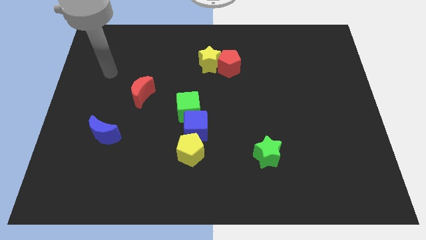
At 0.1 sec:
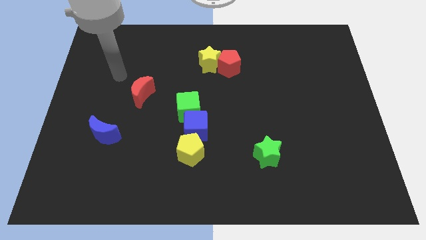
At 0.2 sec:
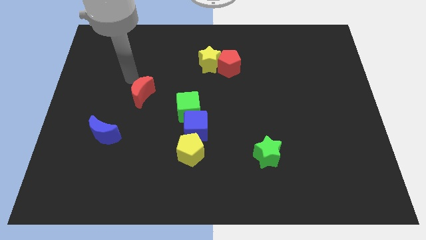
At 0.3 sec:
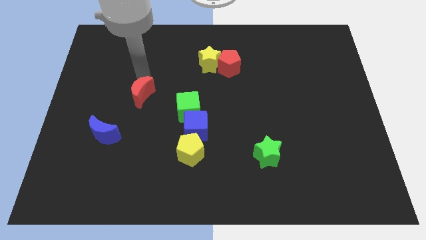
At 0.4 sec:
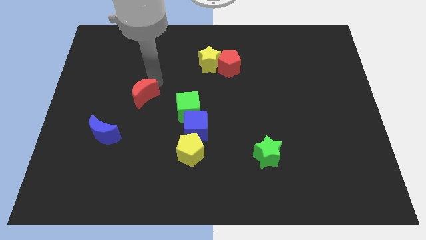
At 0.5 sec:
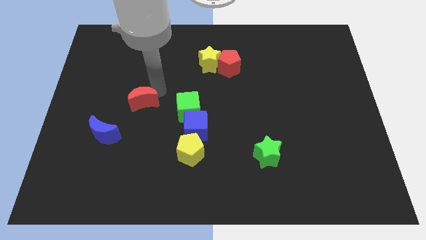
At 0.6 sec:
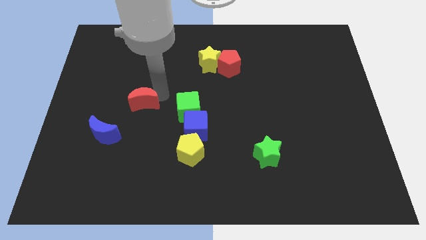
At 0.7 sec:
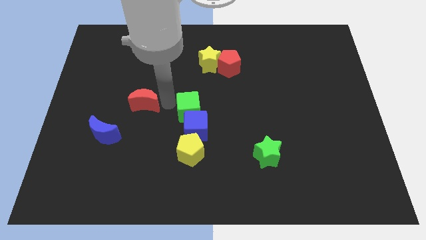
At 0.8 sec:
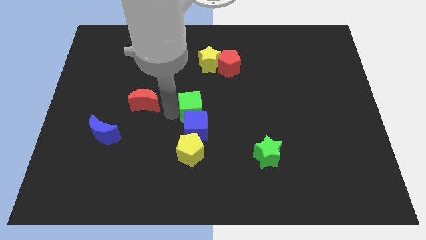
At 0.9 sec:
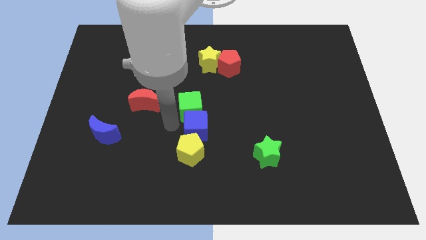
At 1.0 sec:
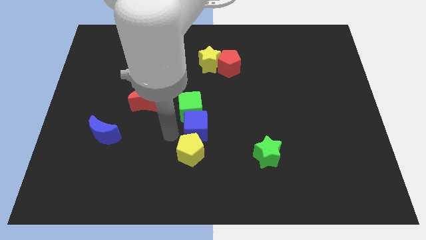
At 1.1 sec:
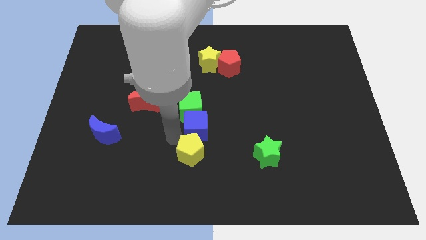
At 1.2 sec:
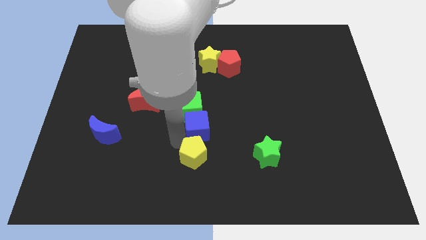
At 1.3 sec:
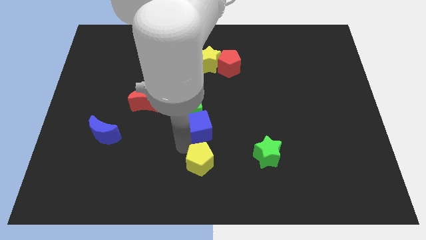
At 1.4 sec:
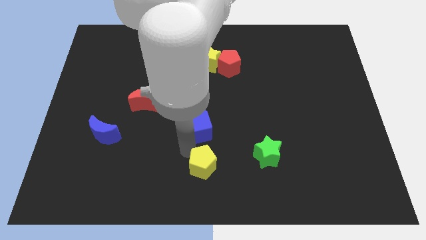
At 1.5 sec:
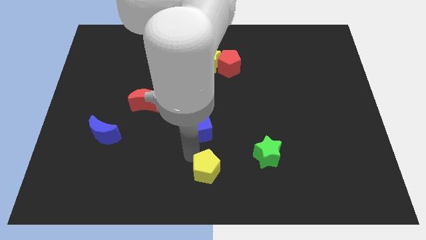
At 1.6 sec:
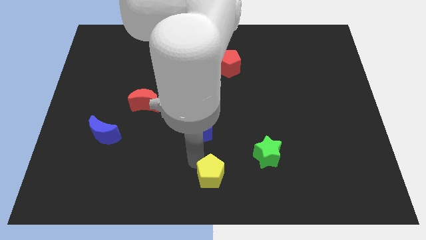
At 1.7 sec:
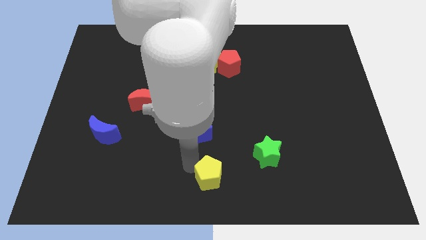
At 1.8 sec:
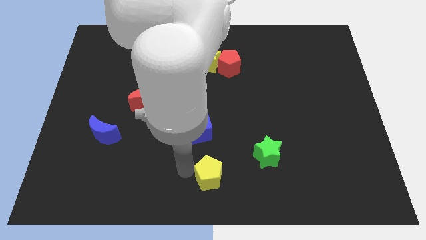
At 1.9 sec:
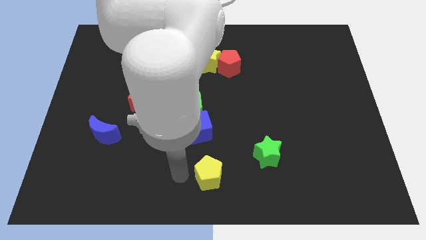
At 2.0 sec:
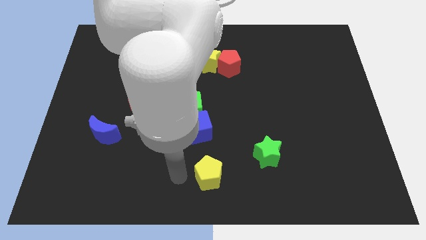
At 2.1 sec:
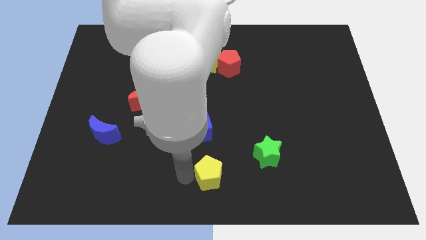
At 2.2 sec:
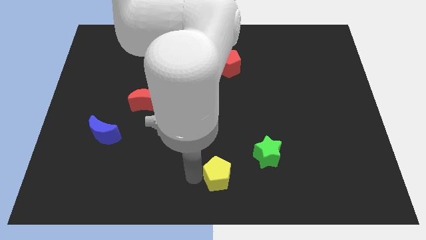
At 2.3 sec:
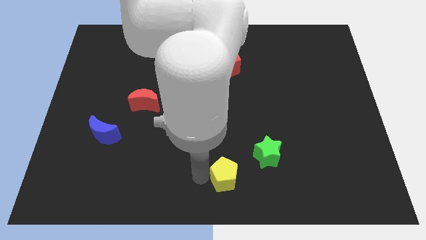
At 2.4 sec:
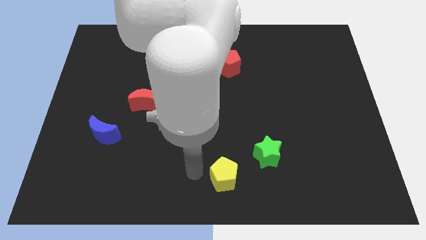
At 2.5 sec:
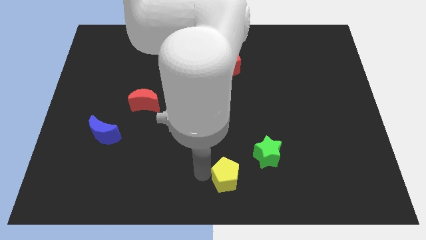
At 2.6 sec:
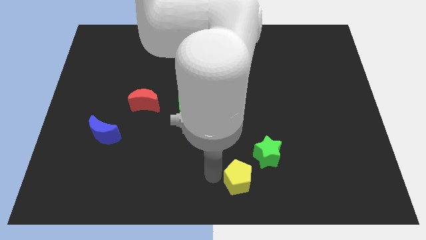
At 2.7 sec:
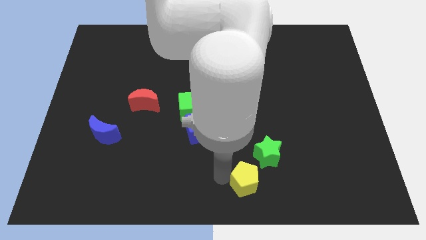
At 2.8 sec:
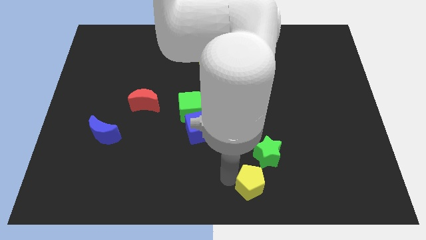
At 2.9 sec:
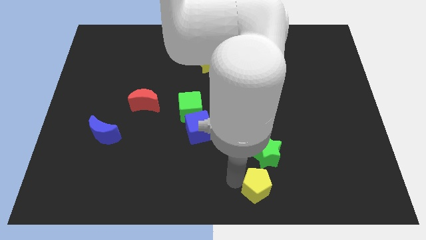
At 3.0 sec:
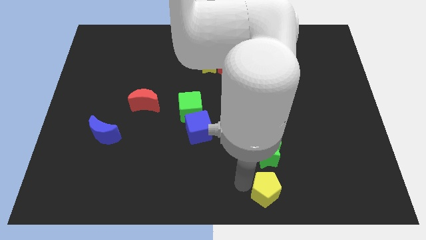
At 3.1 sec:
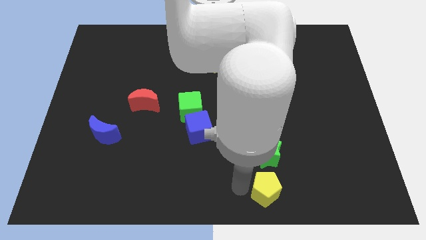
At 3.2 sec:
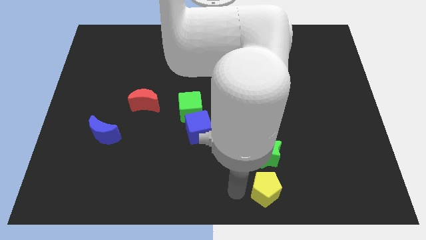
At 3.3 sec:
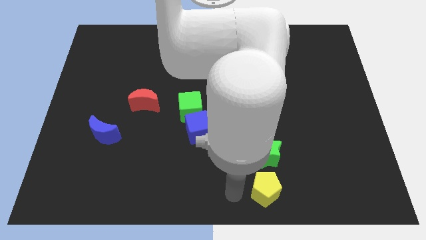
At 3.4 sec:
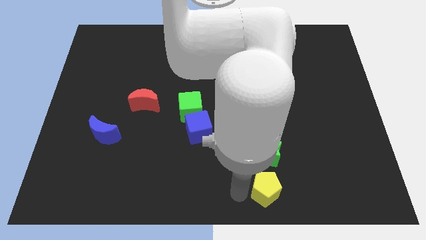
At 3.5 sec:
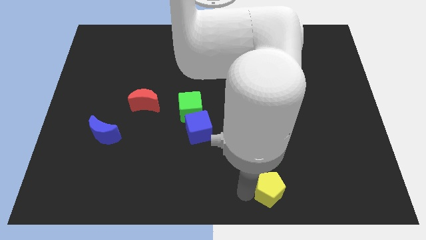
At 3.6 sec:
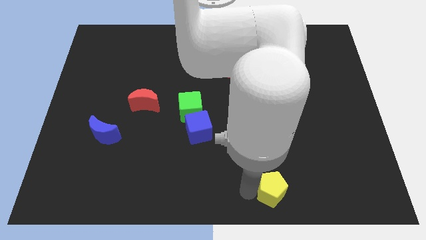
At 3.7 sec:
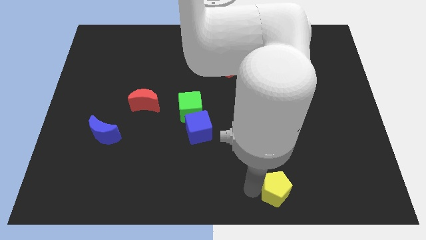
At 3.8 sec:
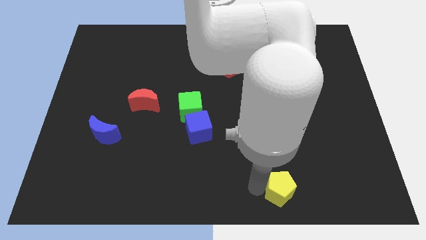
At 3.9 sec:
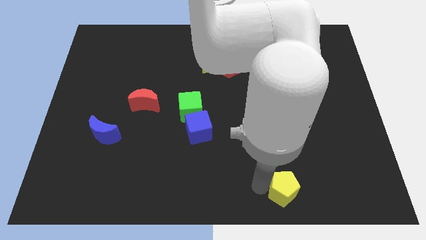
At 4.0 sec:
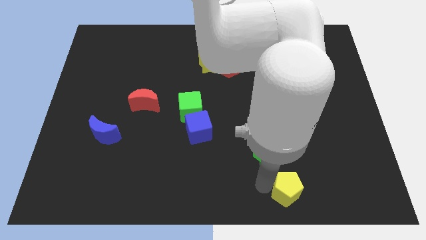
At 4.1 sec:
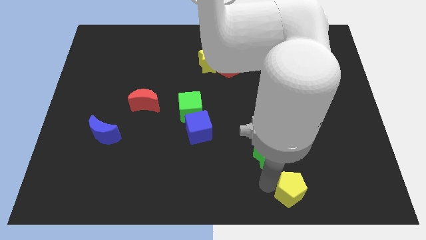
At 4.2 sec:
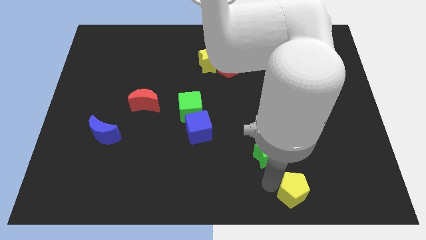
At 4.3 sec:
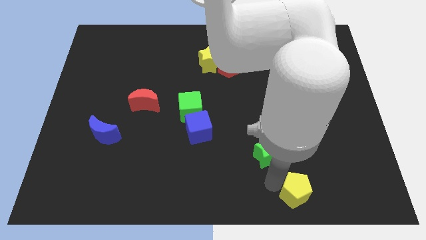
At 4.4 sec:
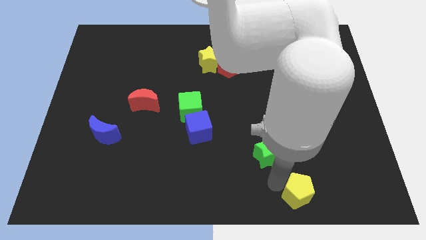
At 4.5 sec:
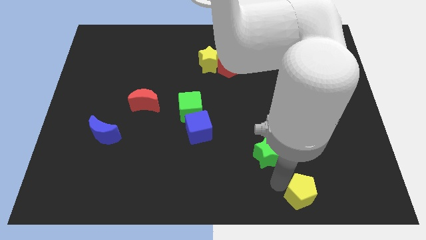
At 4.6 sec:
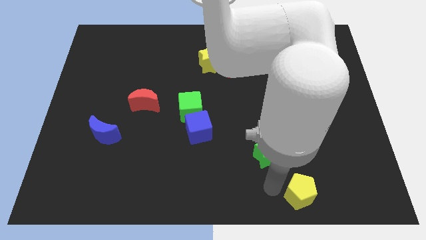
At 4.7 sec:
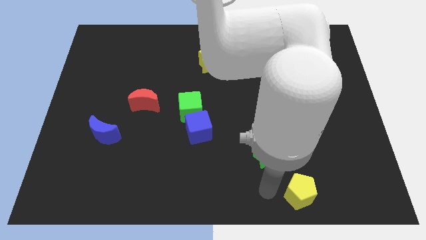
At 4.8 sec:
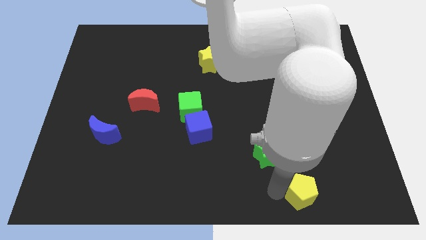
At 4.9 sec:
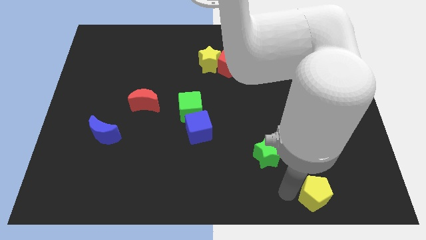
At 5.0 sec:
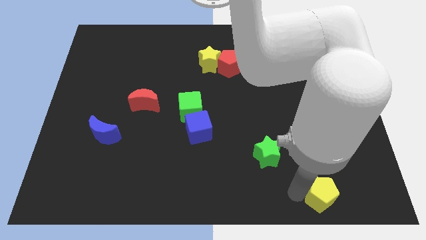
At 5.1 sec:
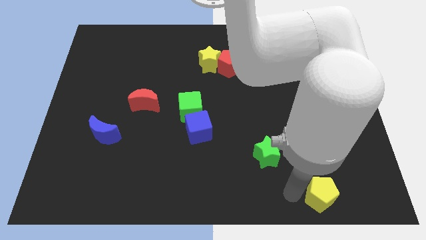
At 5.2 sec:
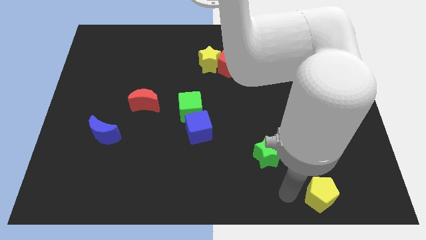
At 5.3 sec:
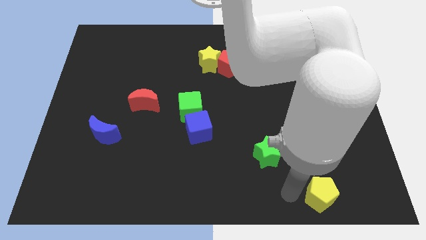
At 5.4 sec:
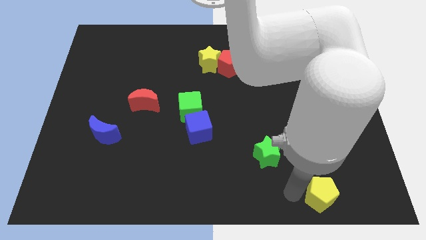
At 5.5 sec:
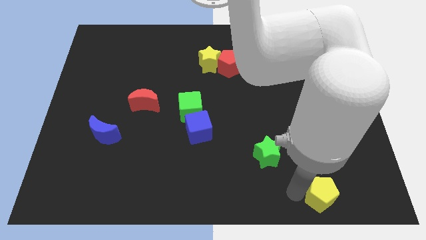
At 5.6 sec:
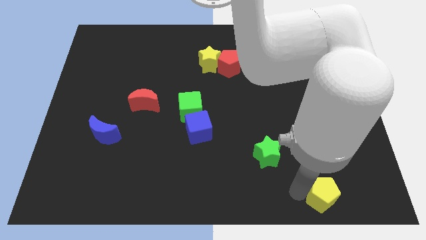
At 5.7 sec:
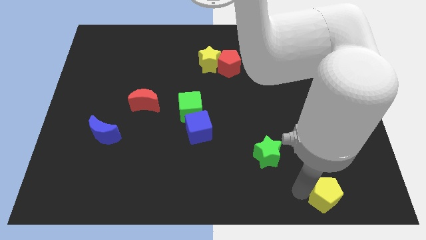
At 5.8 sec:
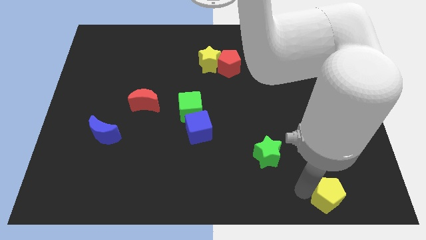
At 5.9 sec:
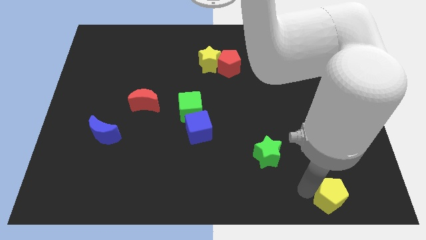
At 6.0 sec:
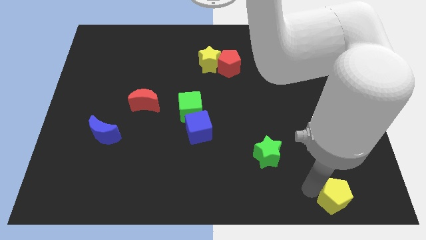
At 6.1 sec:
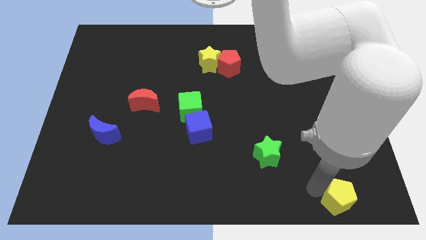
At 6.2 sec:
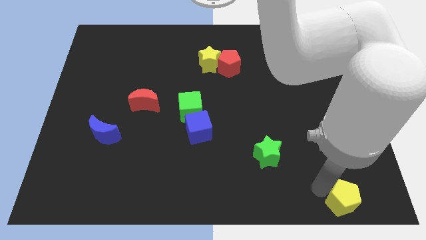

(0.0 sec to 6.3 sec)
slide the yellow pentagon to the bottom right corner
